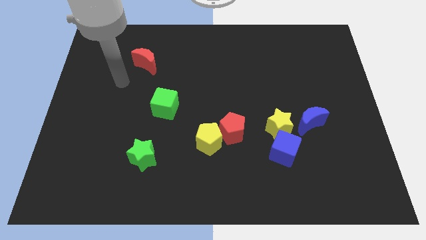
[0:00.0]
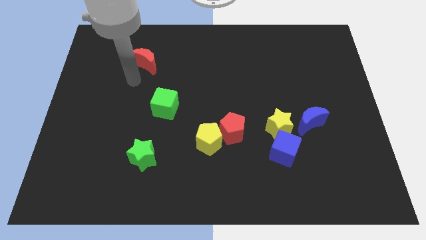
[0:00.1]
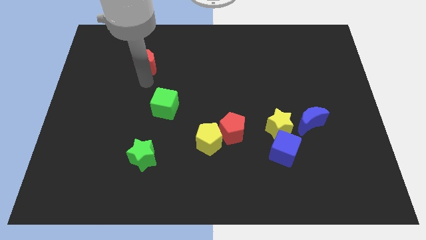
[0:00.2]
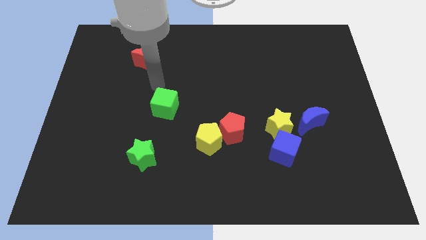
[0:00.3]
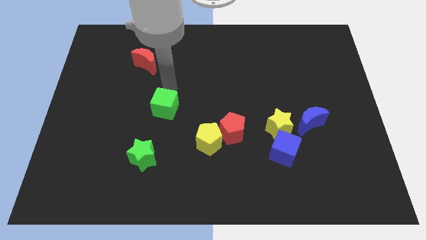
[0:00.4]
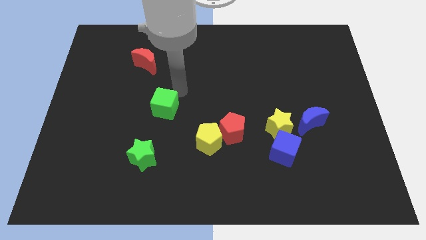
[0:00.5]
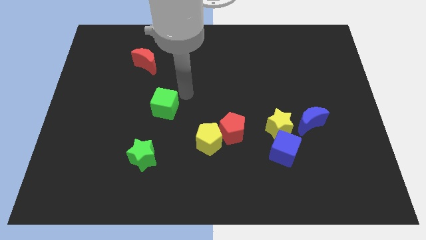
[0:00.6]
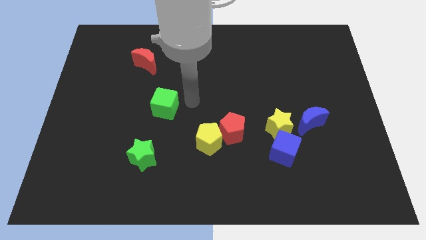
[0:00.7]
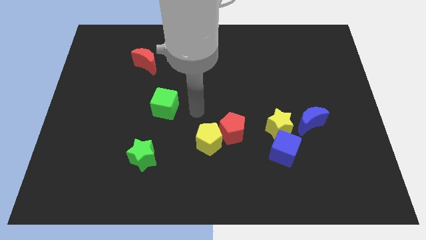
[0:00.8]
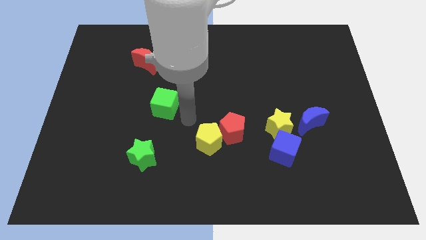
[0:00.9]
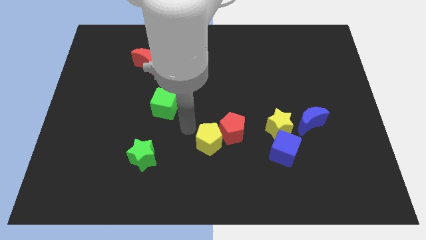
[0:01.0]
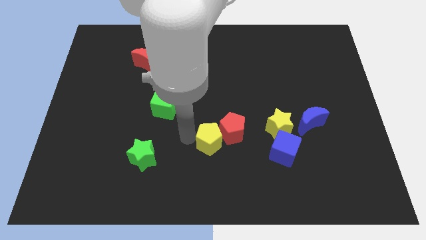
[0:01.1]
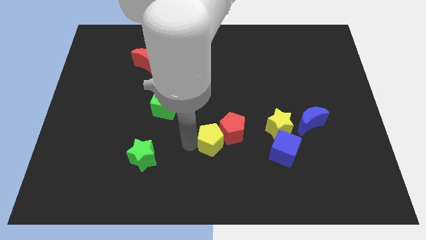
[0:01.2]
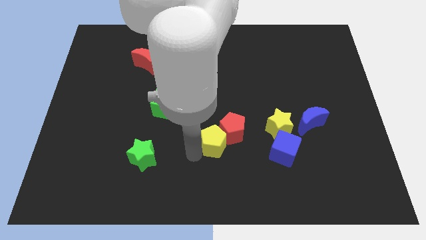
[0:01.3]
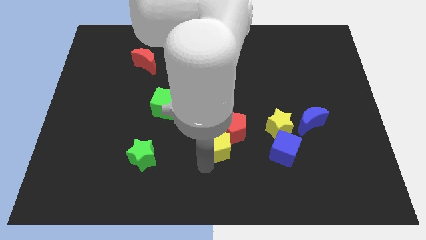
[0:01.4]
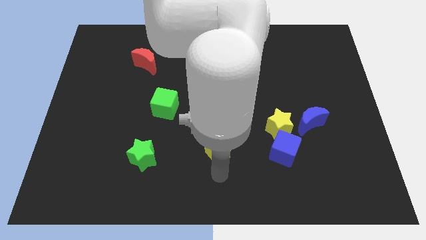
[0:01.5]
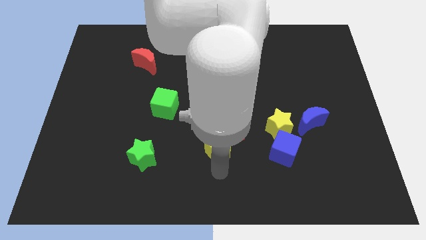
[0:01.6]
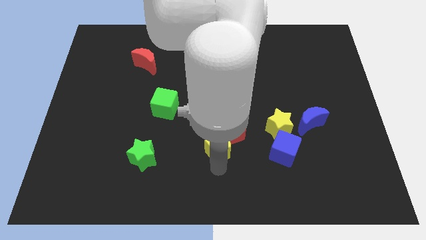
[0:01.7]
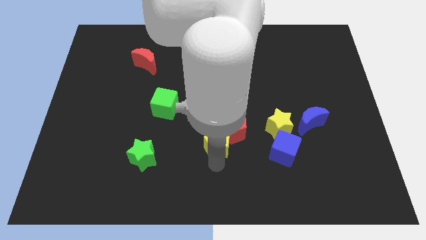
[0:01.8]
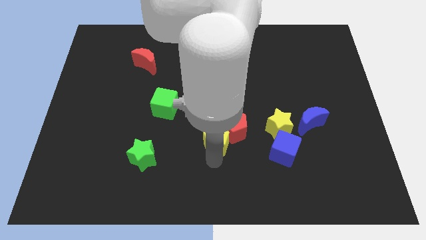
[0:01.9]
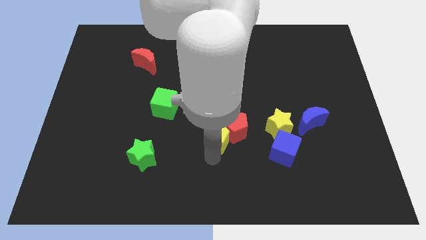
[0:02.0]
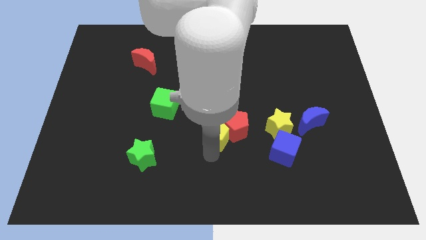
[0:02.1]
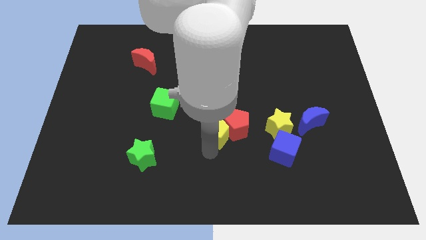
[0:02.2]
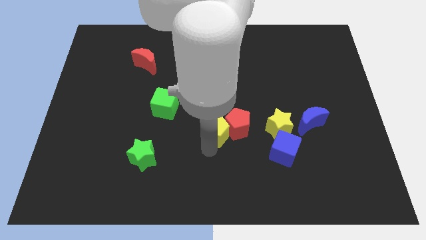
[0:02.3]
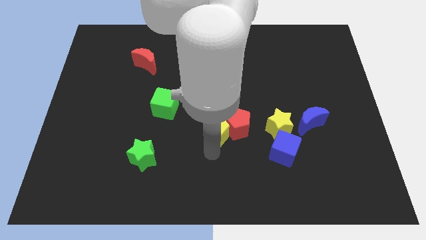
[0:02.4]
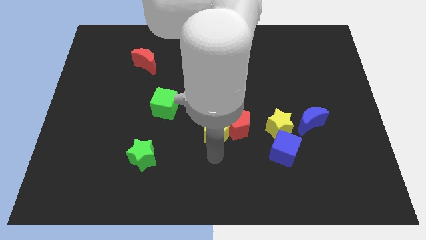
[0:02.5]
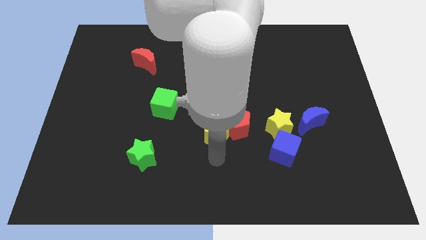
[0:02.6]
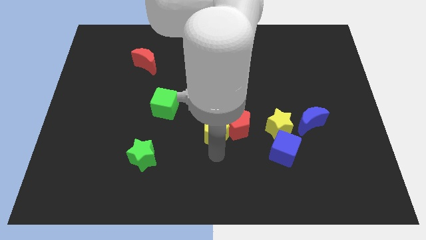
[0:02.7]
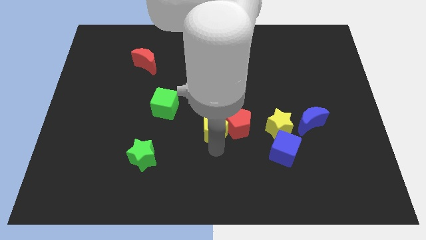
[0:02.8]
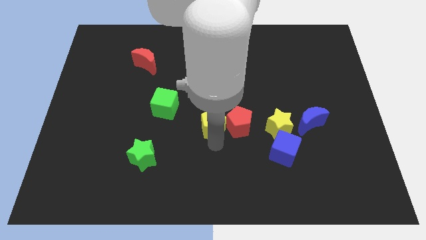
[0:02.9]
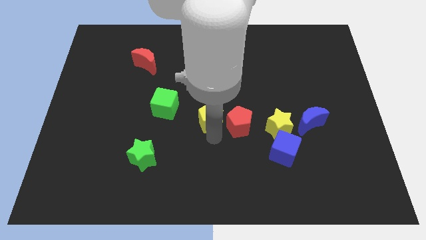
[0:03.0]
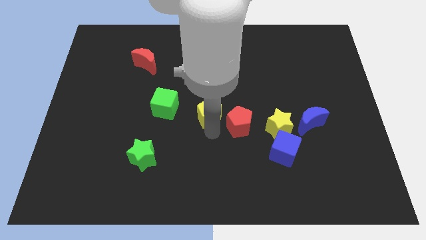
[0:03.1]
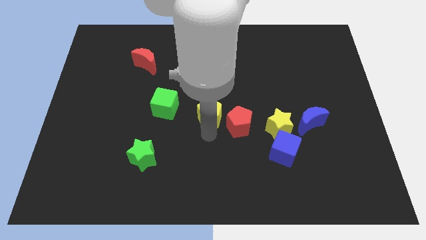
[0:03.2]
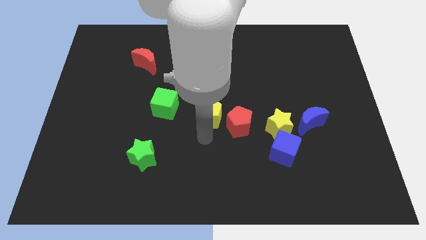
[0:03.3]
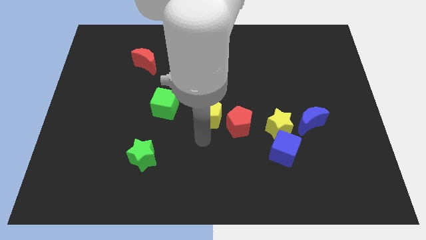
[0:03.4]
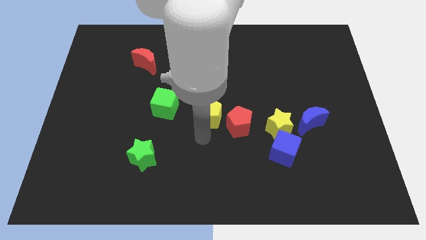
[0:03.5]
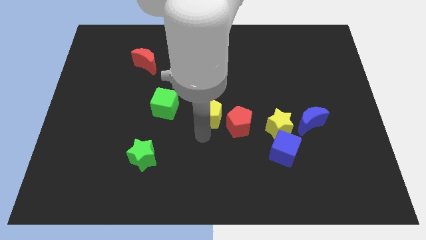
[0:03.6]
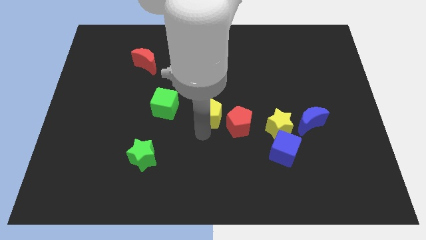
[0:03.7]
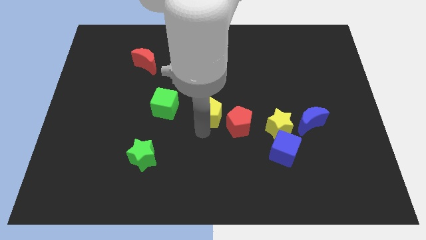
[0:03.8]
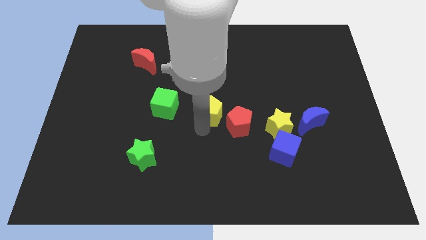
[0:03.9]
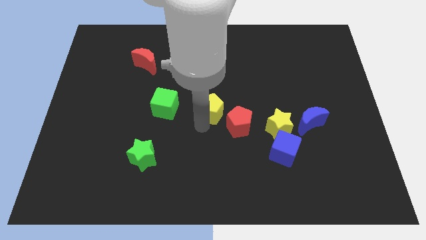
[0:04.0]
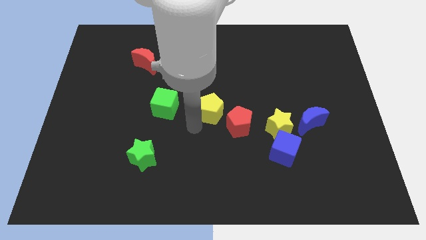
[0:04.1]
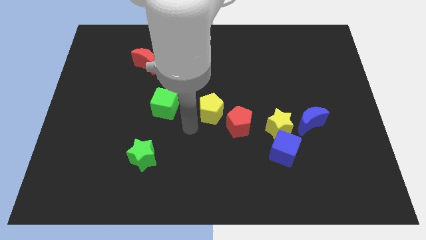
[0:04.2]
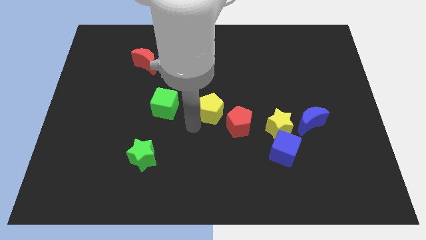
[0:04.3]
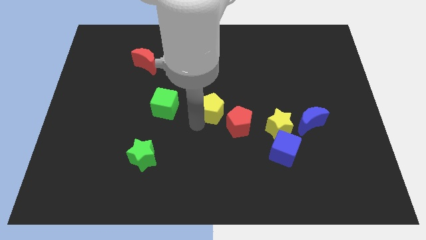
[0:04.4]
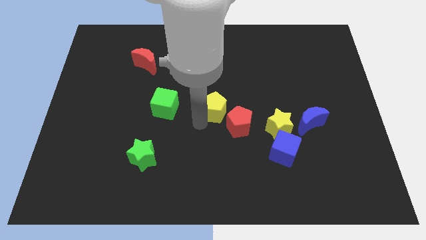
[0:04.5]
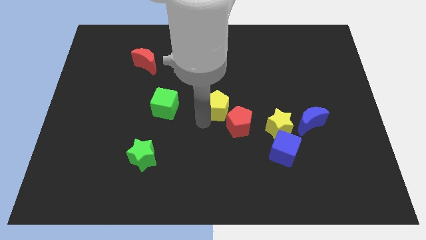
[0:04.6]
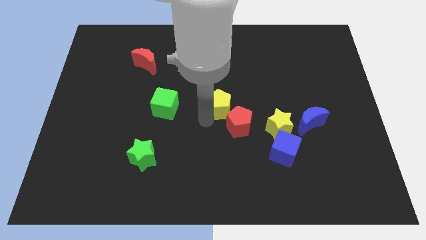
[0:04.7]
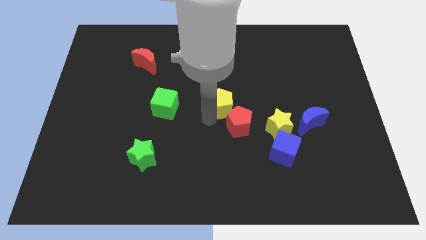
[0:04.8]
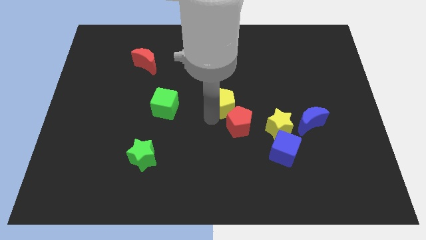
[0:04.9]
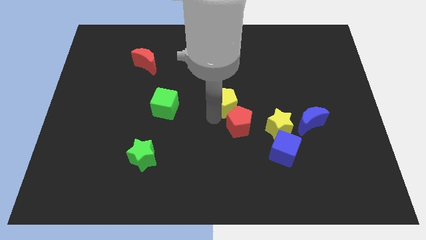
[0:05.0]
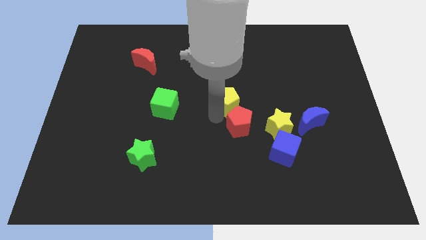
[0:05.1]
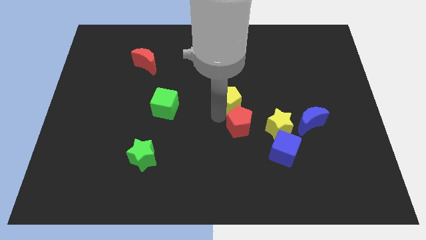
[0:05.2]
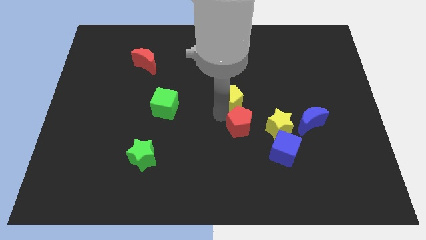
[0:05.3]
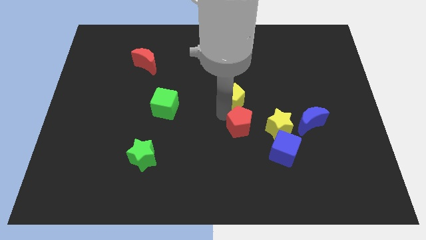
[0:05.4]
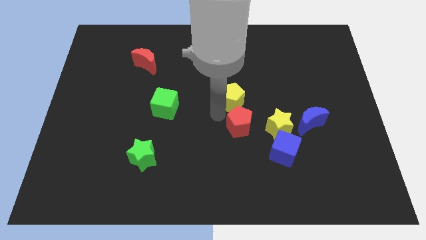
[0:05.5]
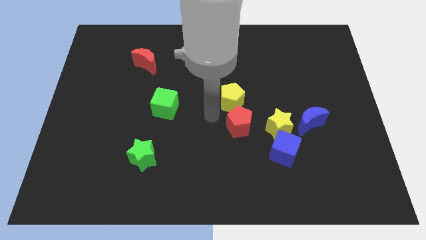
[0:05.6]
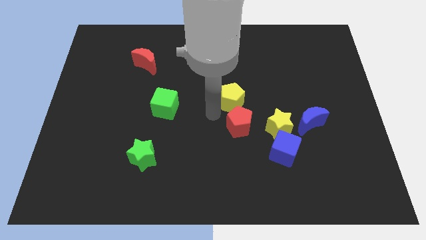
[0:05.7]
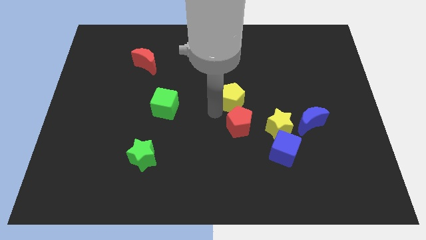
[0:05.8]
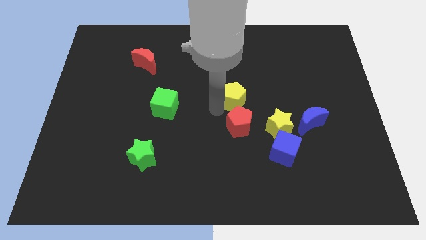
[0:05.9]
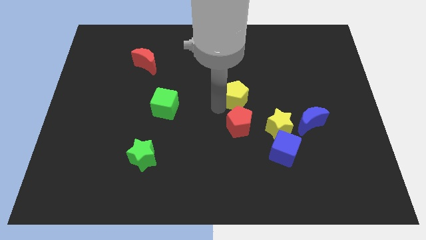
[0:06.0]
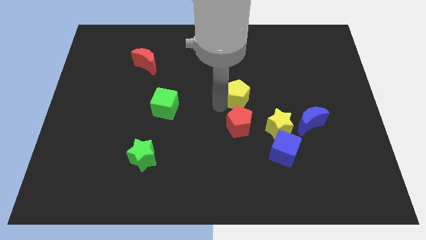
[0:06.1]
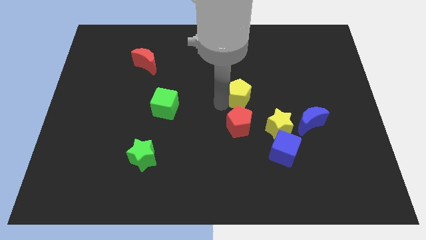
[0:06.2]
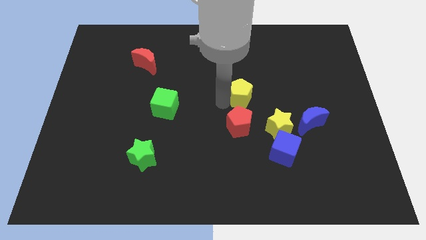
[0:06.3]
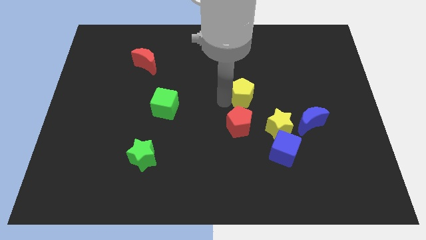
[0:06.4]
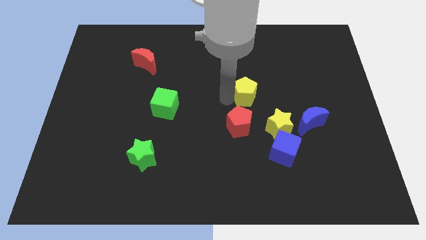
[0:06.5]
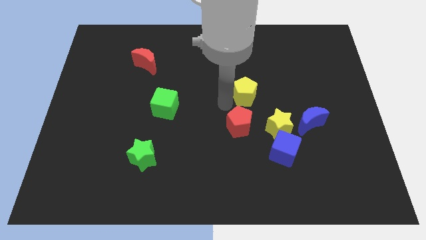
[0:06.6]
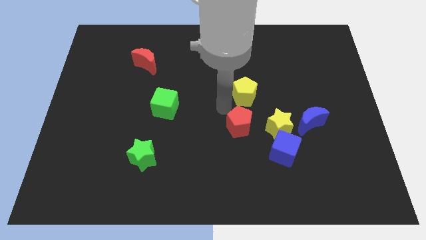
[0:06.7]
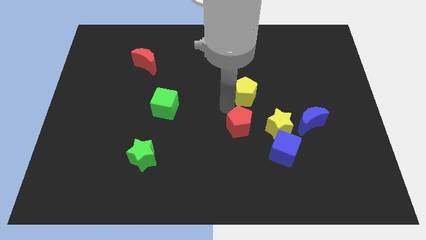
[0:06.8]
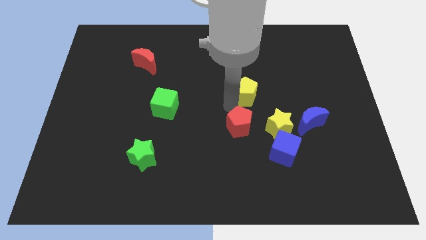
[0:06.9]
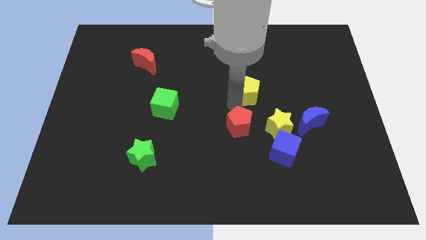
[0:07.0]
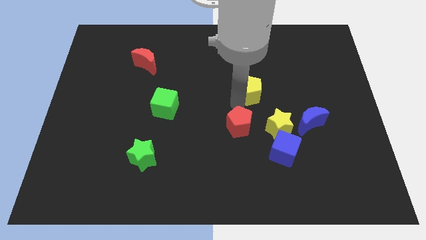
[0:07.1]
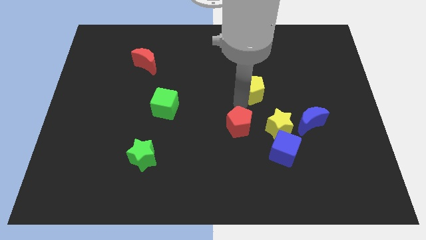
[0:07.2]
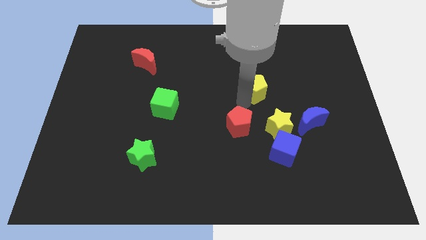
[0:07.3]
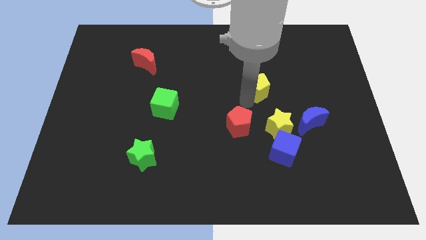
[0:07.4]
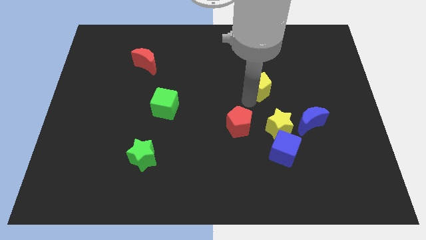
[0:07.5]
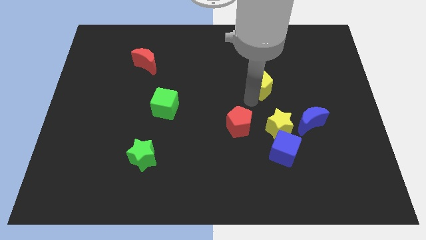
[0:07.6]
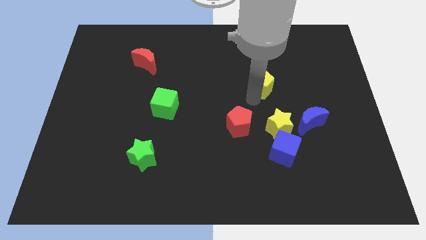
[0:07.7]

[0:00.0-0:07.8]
move the yellow pentagon upwards and then to the right
